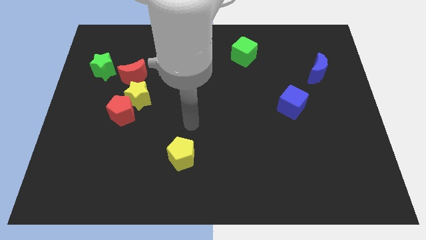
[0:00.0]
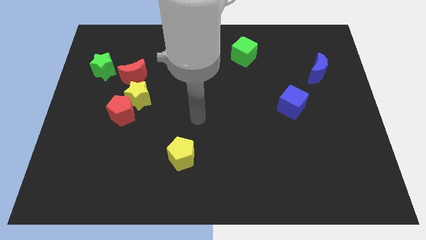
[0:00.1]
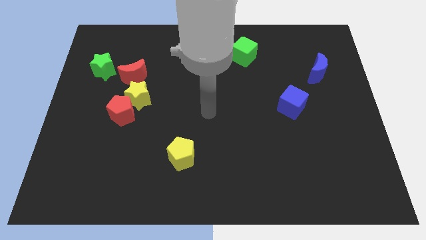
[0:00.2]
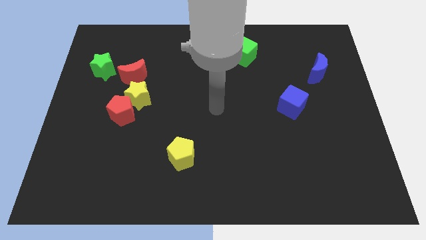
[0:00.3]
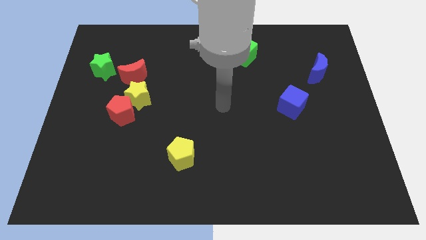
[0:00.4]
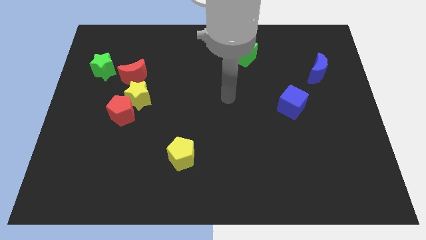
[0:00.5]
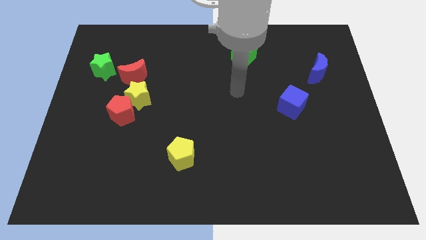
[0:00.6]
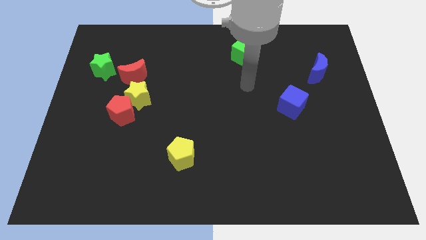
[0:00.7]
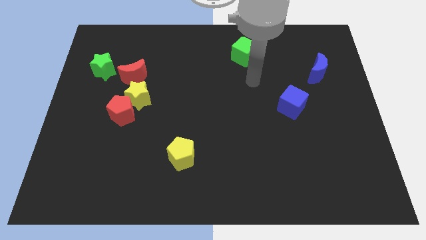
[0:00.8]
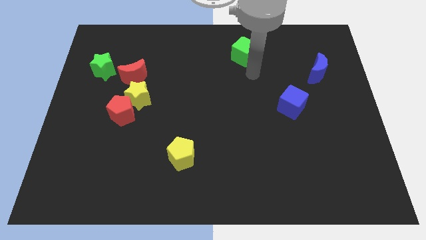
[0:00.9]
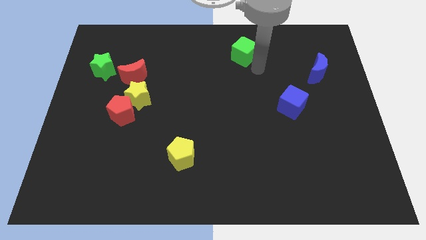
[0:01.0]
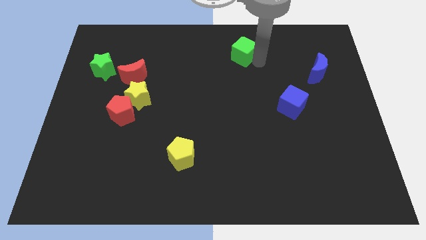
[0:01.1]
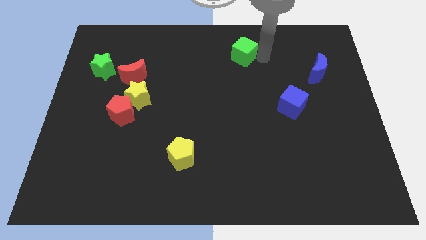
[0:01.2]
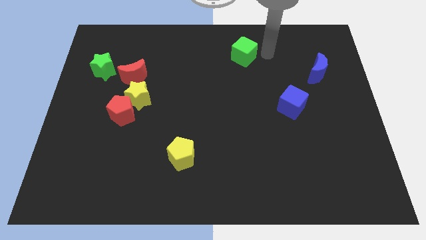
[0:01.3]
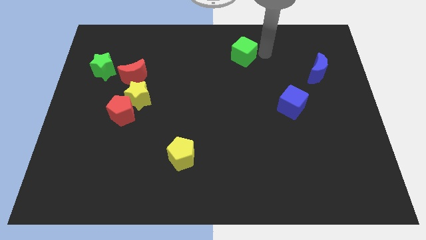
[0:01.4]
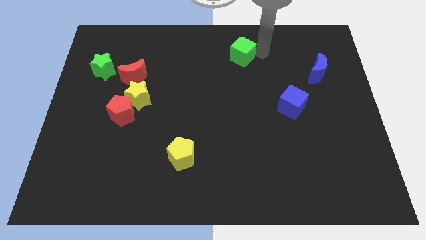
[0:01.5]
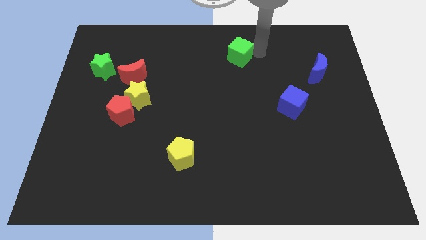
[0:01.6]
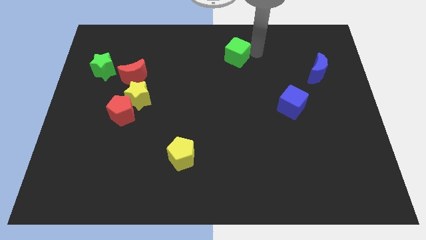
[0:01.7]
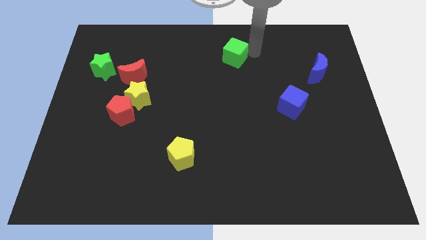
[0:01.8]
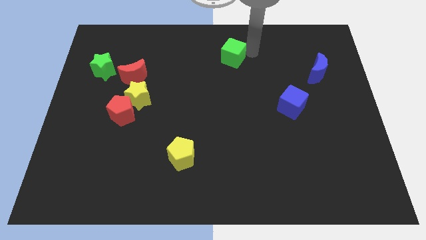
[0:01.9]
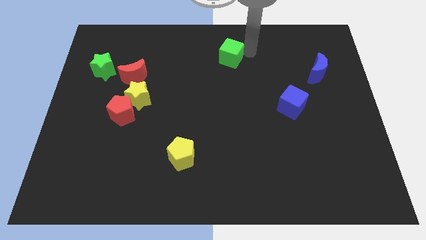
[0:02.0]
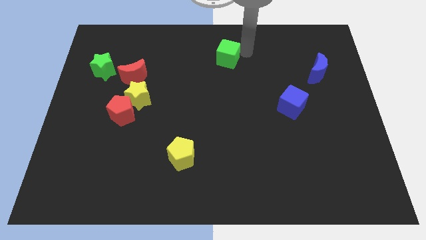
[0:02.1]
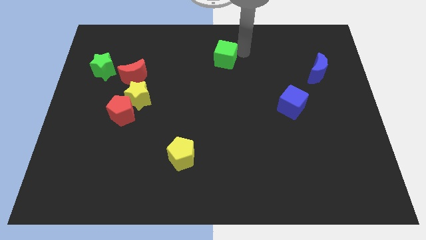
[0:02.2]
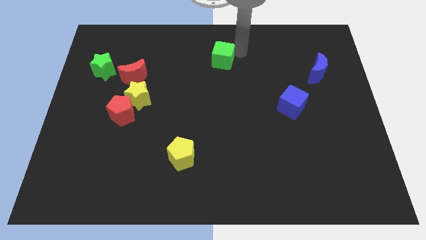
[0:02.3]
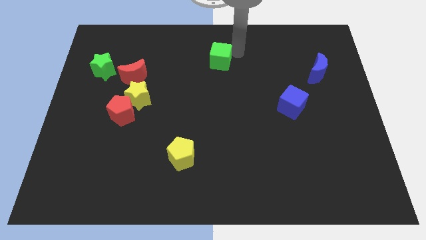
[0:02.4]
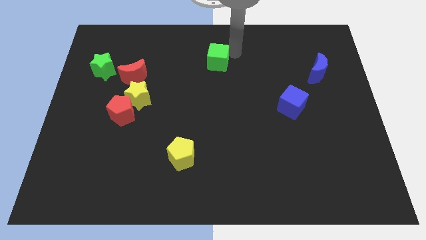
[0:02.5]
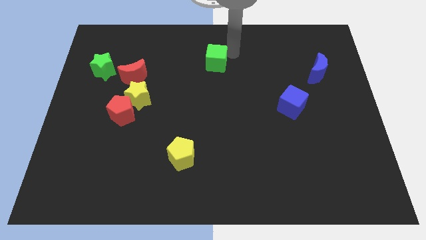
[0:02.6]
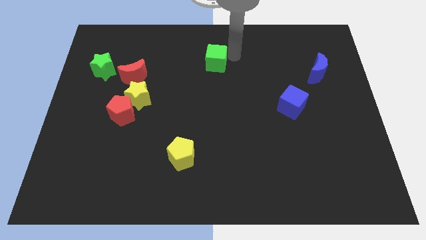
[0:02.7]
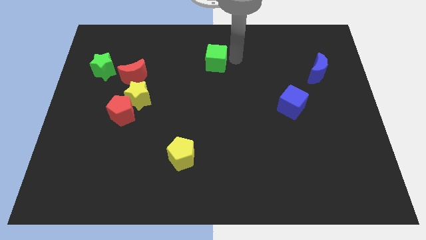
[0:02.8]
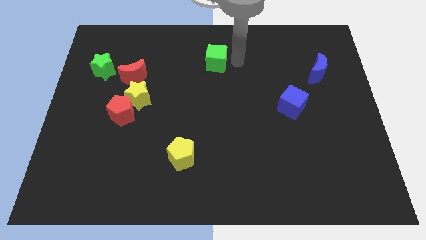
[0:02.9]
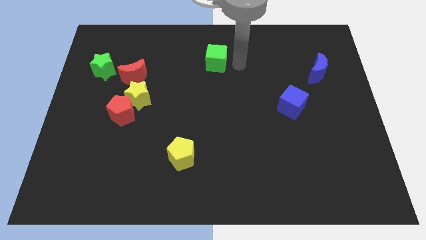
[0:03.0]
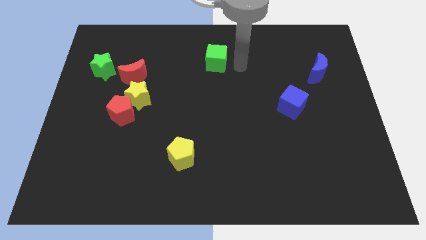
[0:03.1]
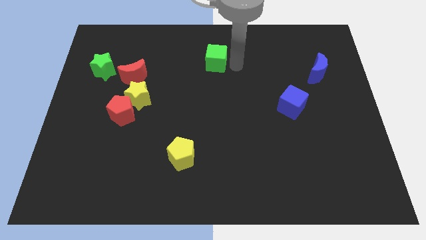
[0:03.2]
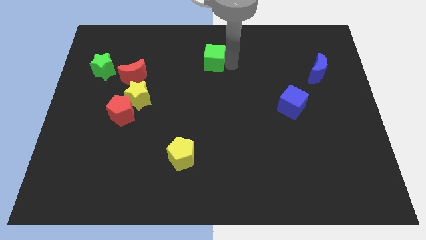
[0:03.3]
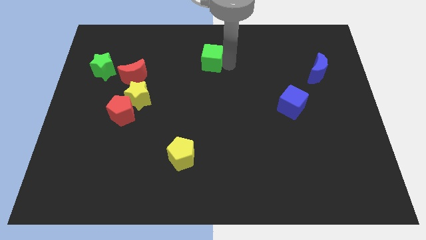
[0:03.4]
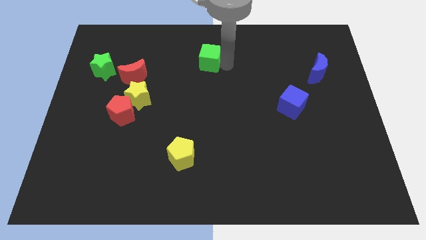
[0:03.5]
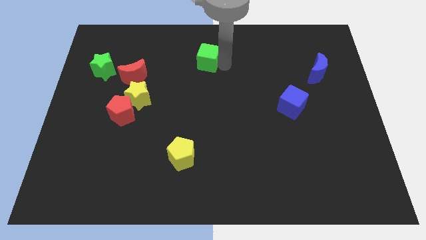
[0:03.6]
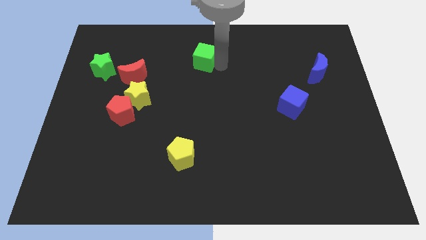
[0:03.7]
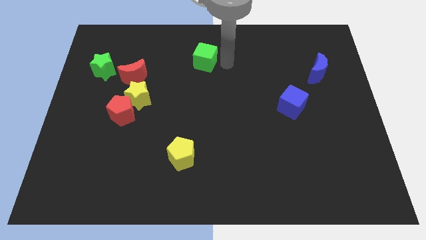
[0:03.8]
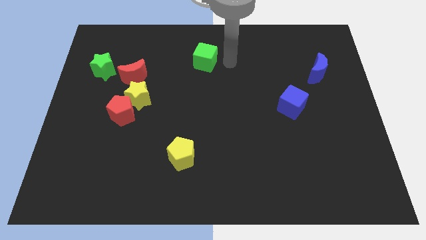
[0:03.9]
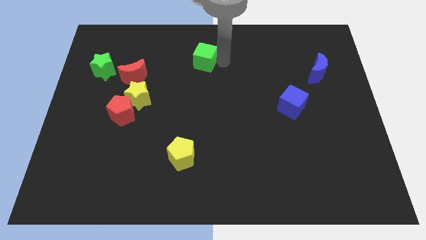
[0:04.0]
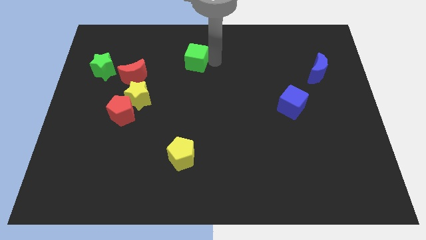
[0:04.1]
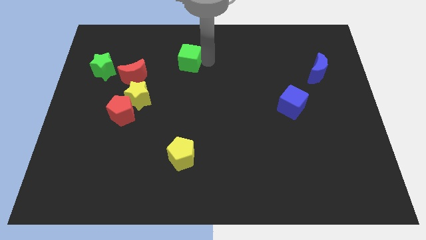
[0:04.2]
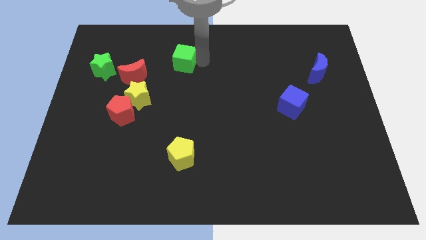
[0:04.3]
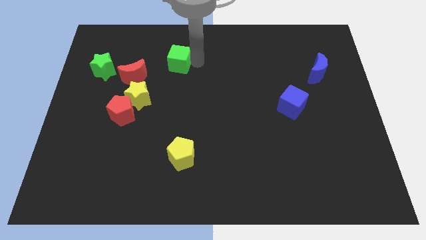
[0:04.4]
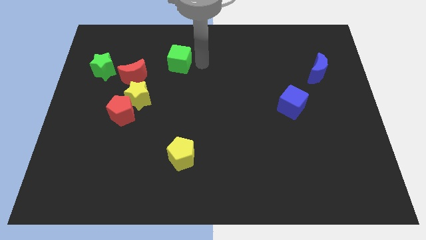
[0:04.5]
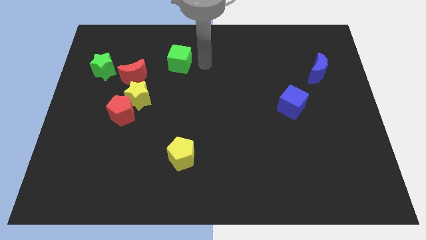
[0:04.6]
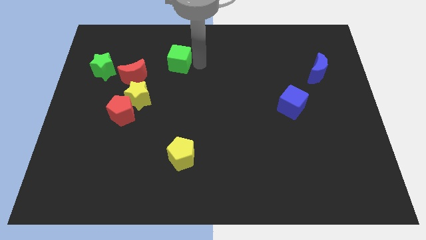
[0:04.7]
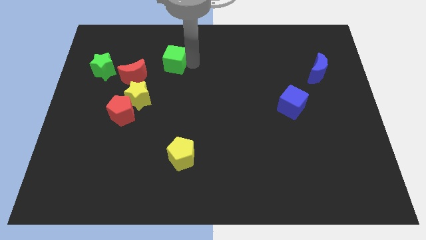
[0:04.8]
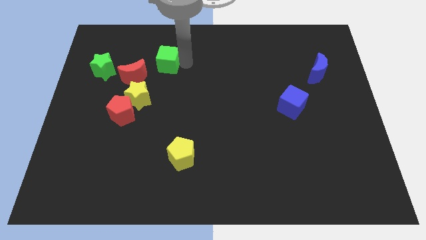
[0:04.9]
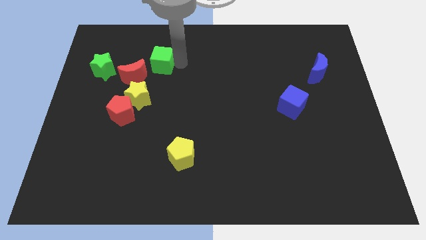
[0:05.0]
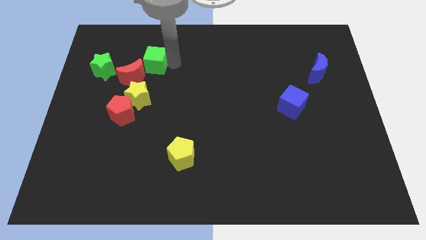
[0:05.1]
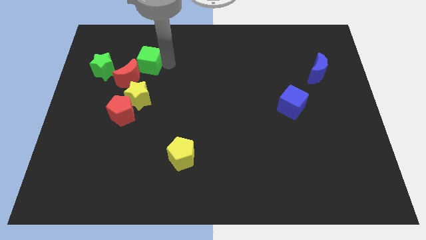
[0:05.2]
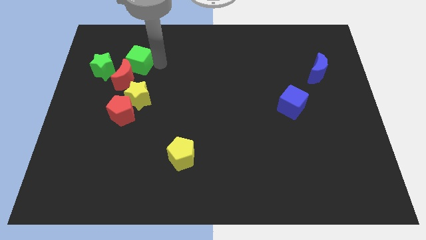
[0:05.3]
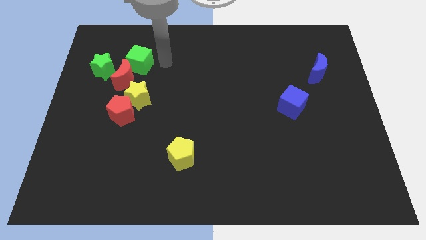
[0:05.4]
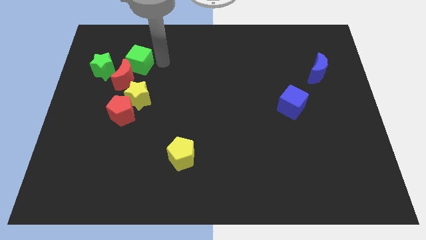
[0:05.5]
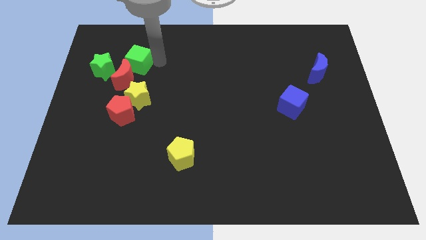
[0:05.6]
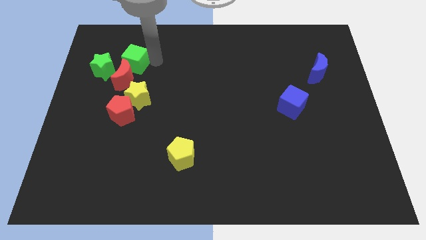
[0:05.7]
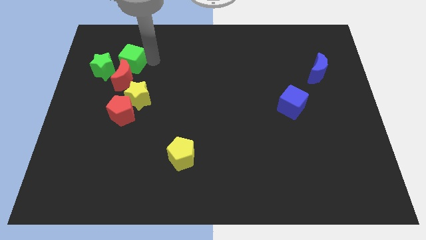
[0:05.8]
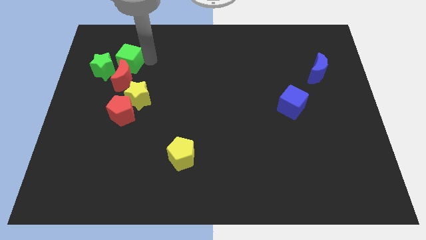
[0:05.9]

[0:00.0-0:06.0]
move the green cube diagonally up and to the left of the red moon

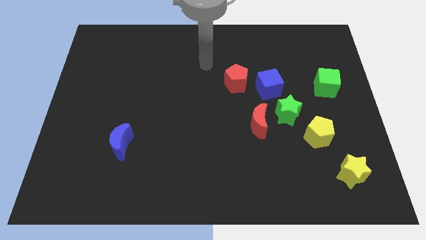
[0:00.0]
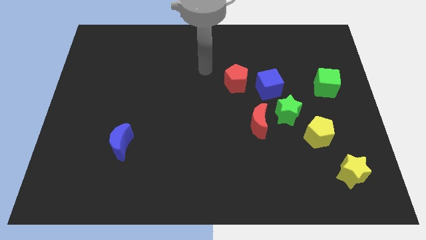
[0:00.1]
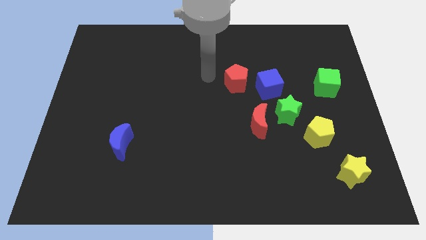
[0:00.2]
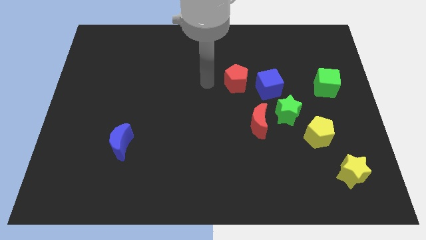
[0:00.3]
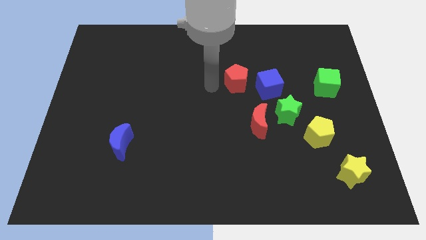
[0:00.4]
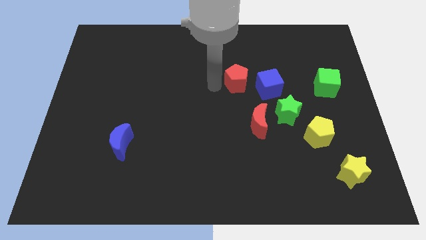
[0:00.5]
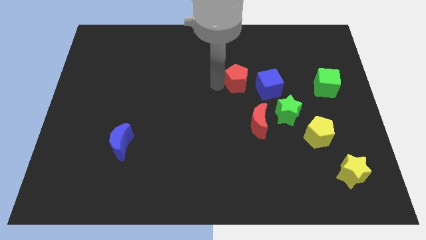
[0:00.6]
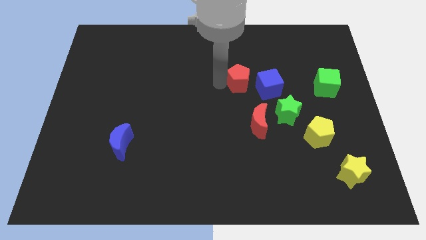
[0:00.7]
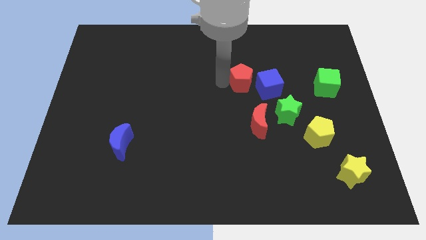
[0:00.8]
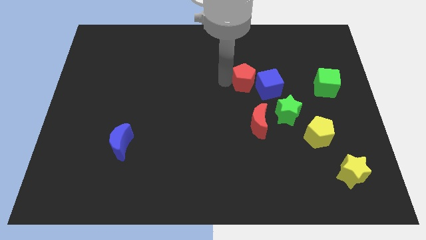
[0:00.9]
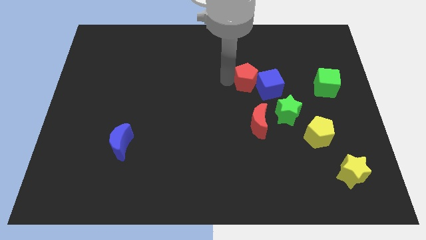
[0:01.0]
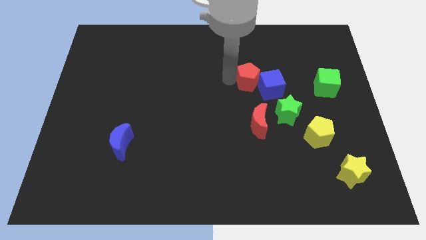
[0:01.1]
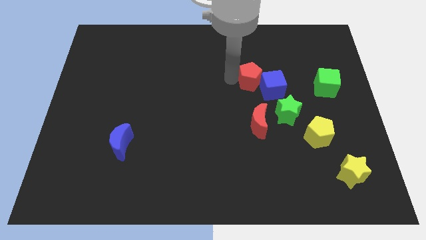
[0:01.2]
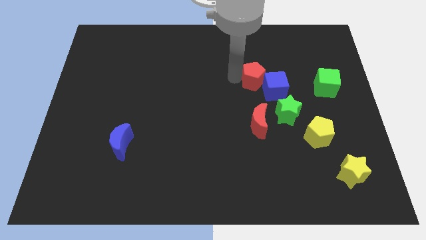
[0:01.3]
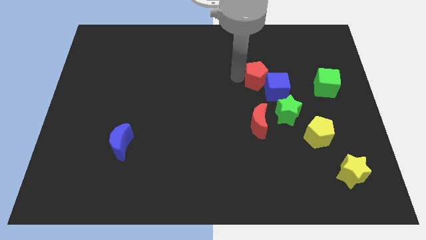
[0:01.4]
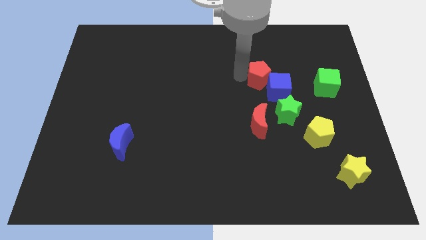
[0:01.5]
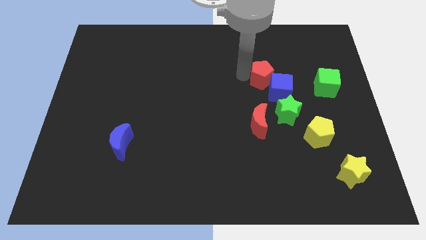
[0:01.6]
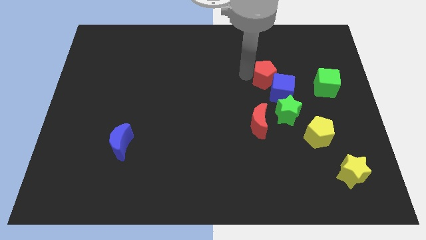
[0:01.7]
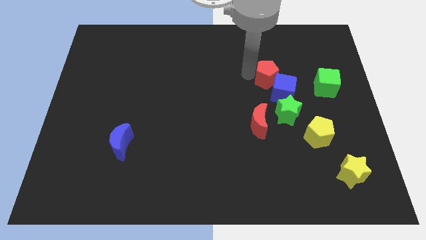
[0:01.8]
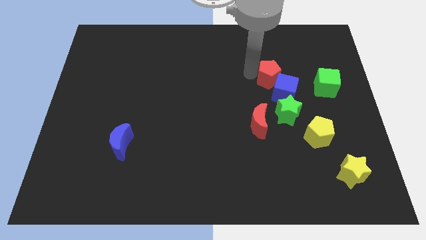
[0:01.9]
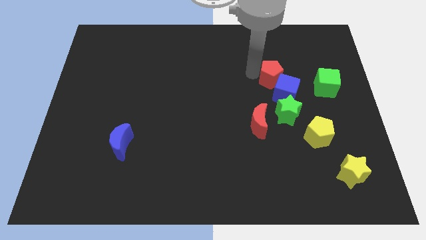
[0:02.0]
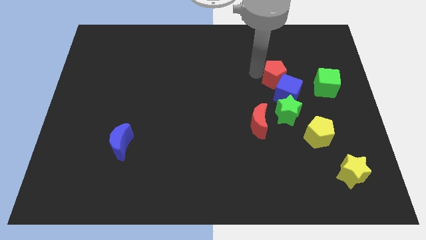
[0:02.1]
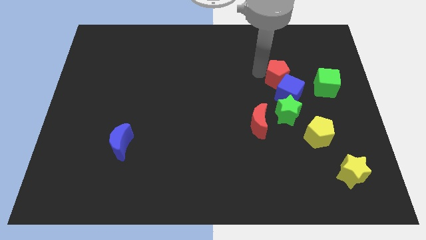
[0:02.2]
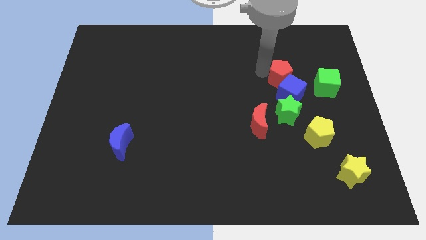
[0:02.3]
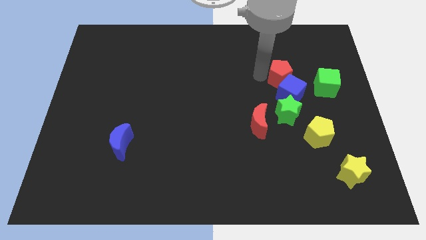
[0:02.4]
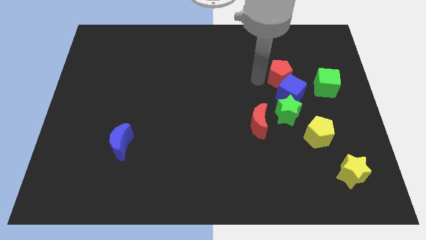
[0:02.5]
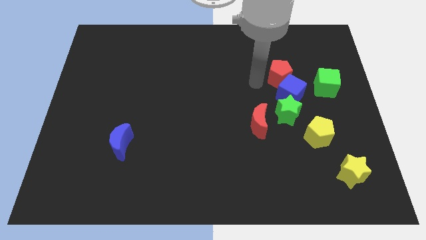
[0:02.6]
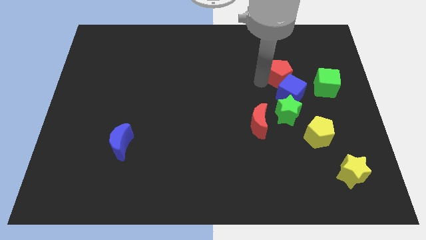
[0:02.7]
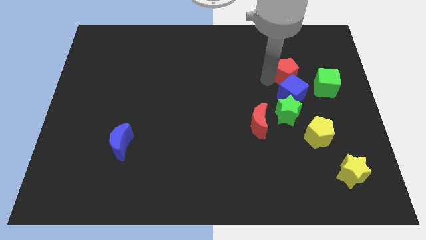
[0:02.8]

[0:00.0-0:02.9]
put the red pentagon to the top left of the green cube
